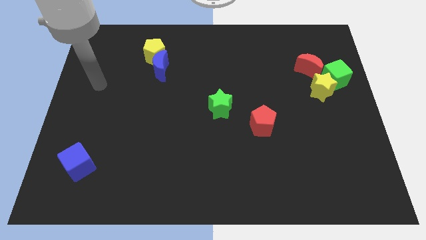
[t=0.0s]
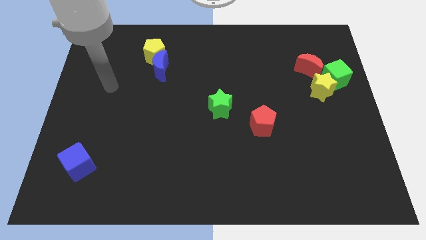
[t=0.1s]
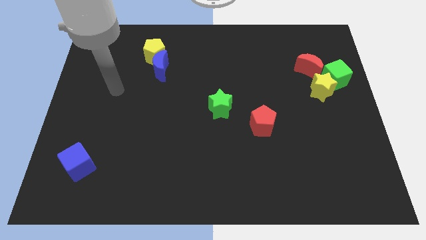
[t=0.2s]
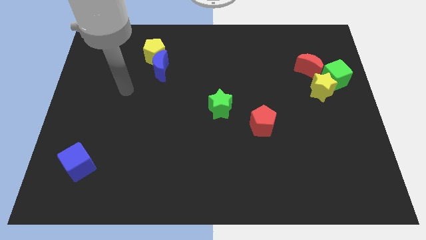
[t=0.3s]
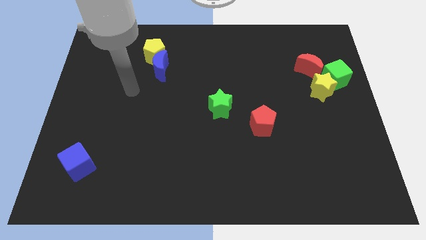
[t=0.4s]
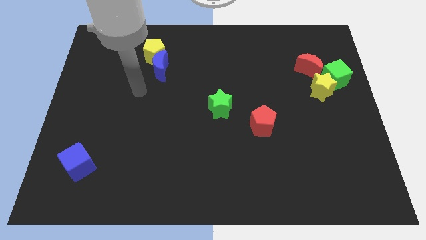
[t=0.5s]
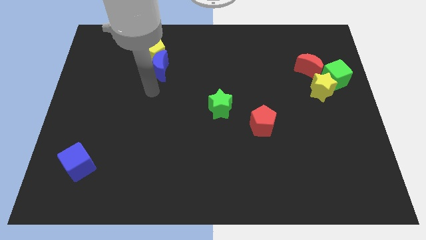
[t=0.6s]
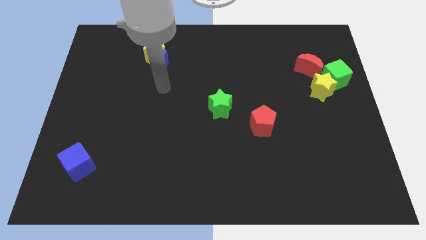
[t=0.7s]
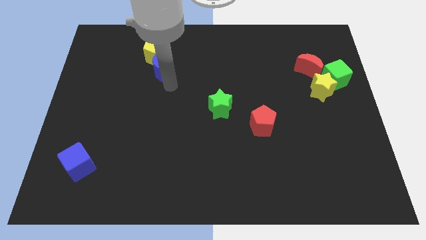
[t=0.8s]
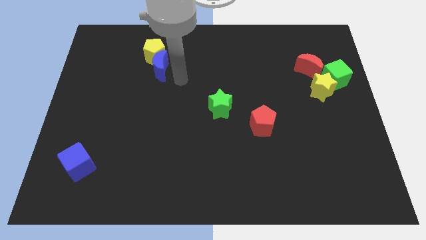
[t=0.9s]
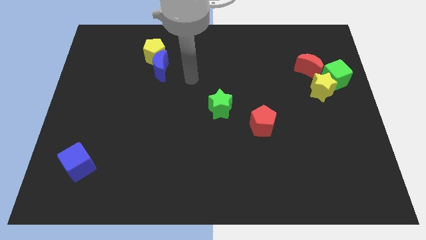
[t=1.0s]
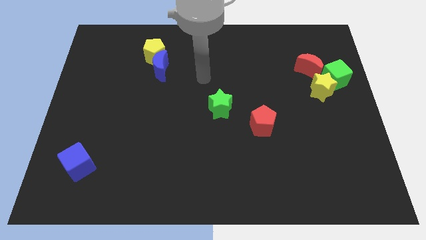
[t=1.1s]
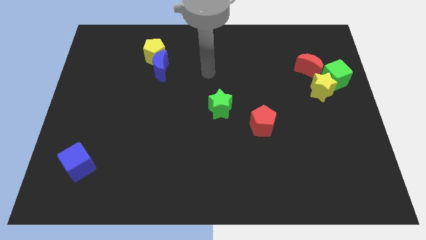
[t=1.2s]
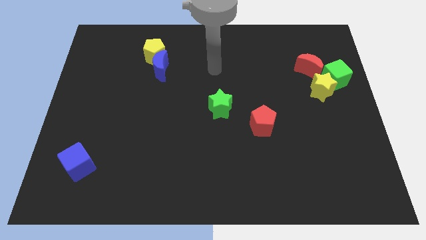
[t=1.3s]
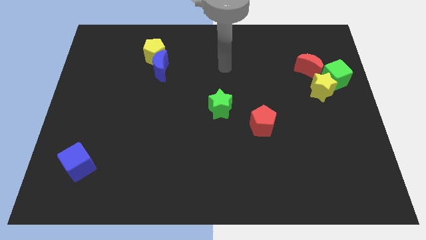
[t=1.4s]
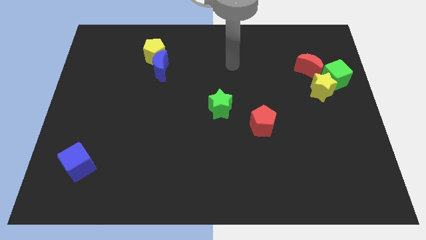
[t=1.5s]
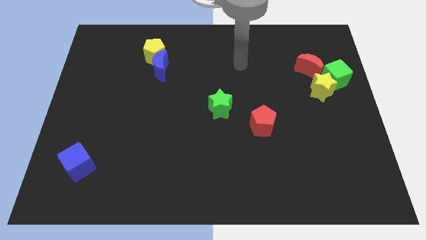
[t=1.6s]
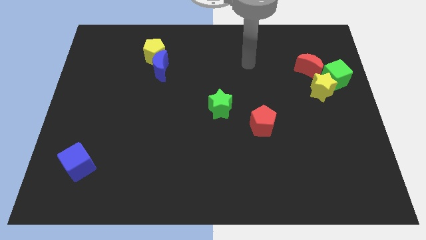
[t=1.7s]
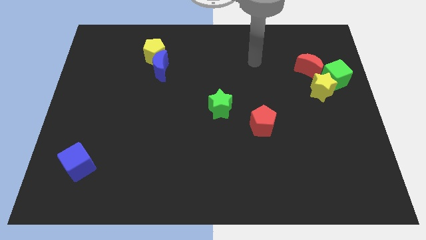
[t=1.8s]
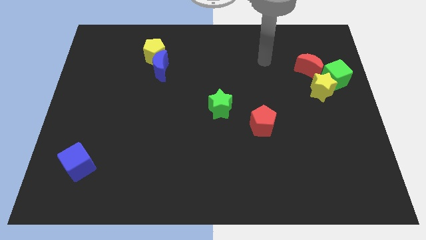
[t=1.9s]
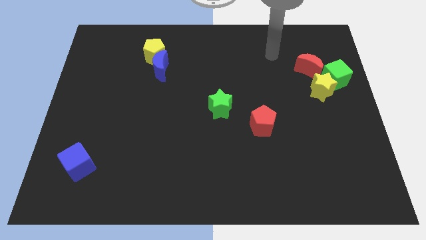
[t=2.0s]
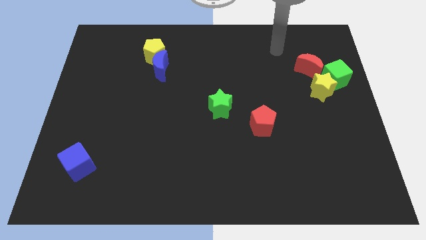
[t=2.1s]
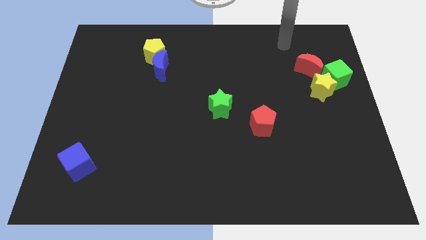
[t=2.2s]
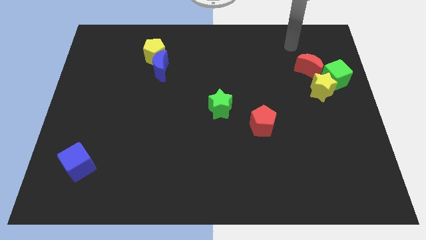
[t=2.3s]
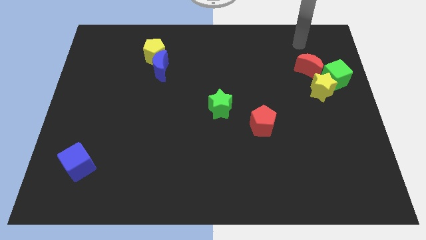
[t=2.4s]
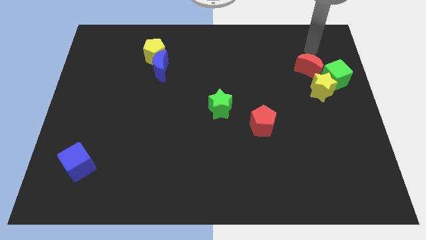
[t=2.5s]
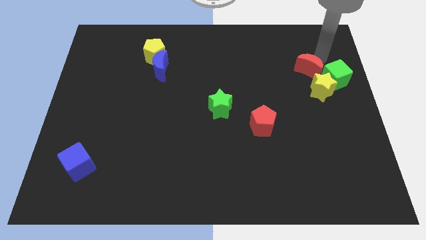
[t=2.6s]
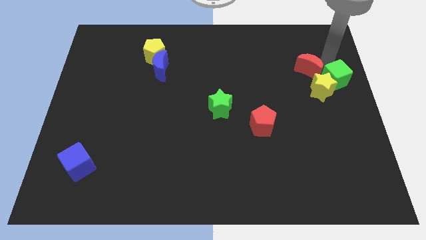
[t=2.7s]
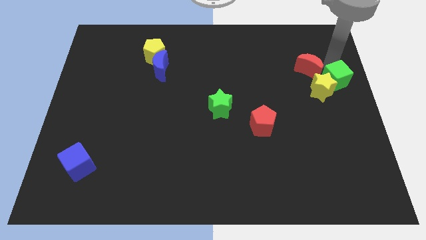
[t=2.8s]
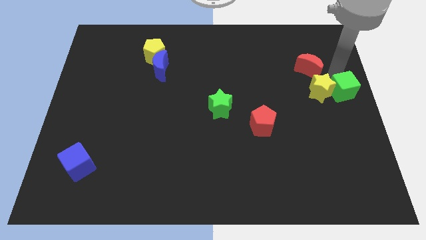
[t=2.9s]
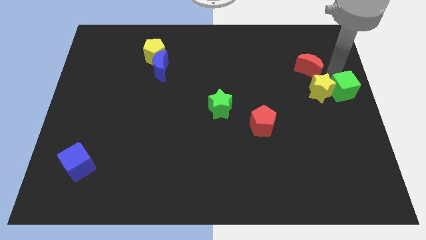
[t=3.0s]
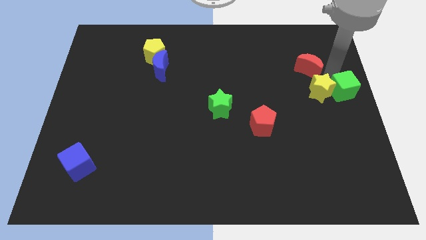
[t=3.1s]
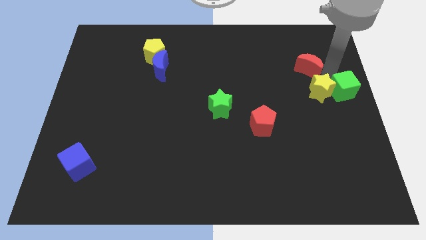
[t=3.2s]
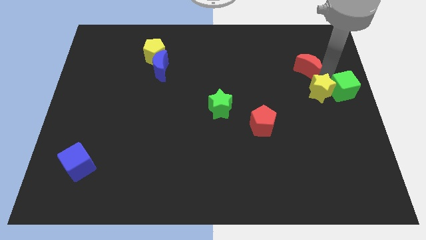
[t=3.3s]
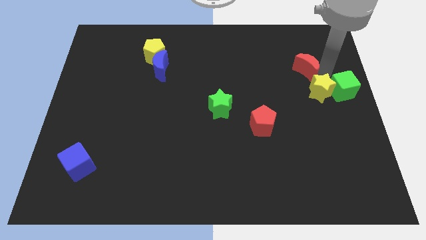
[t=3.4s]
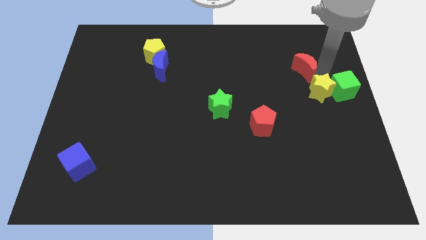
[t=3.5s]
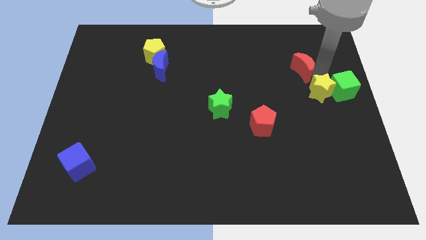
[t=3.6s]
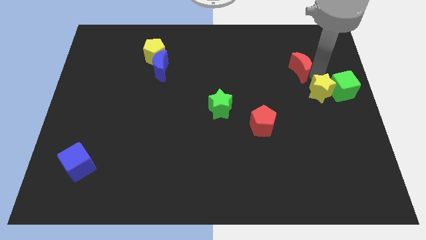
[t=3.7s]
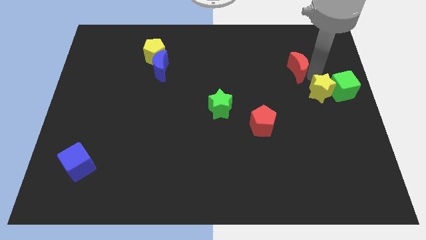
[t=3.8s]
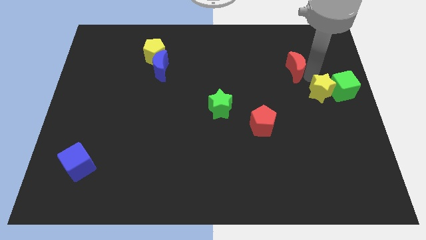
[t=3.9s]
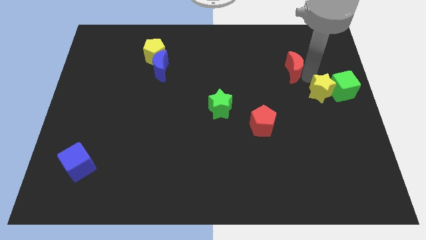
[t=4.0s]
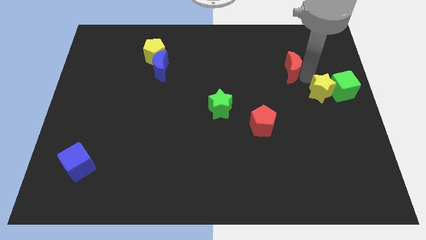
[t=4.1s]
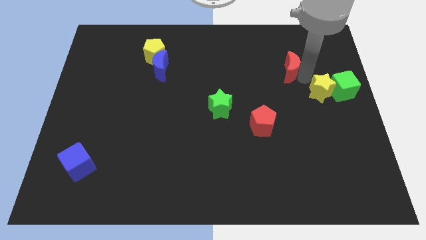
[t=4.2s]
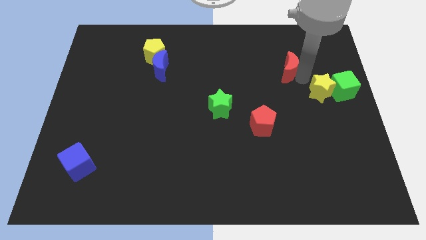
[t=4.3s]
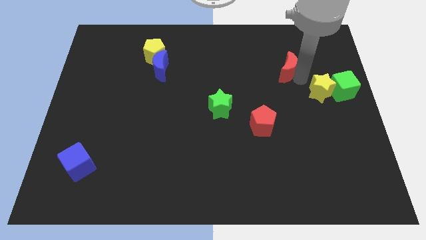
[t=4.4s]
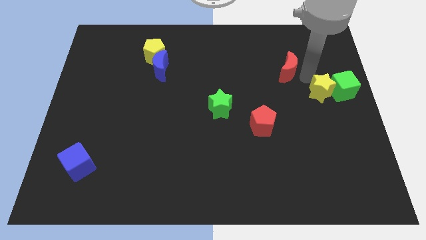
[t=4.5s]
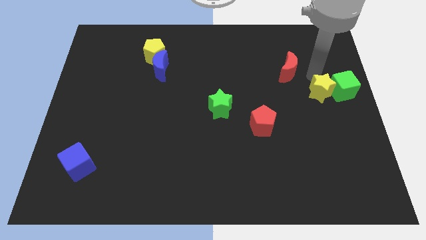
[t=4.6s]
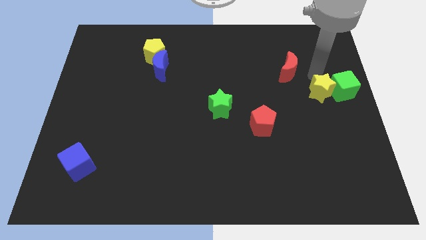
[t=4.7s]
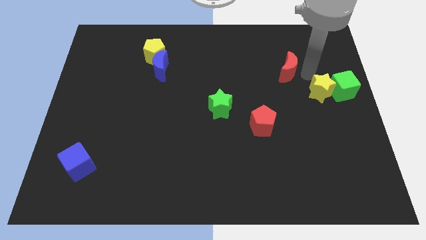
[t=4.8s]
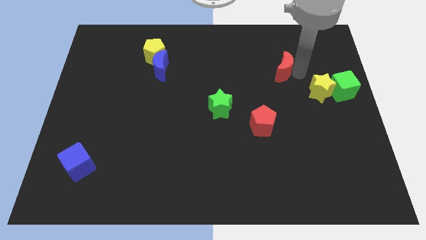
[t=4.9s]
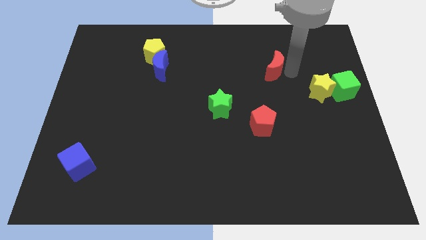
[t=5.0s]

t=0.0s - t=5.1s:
move the red moon left somewhat

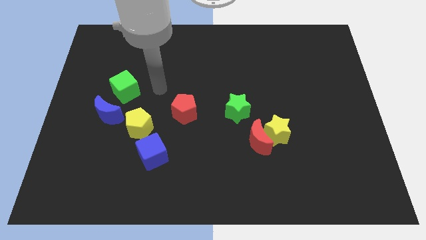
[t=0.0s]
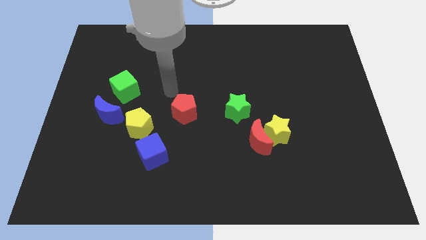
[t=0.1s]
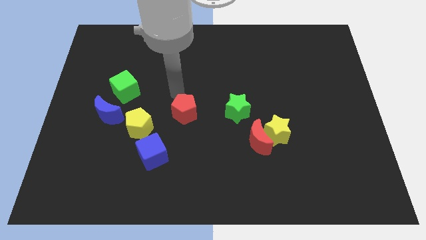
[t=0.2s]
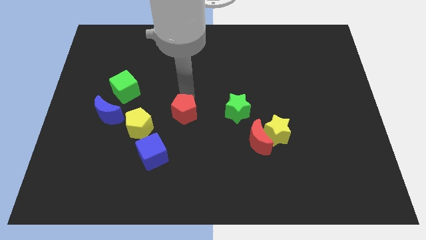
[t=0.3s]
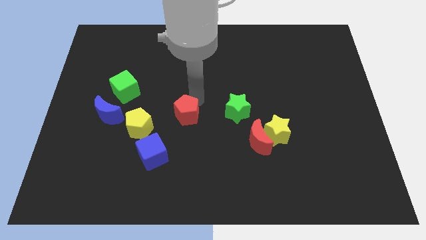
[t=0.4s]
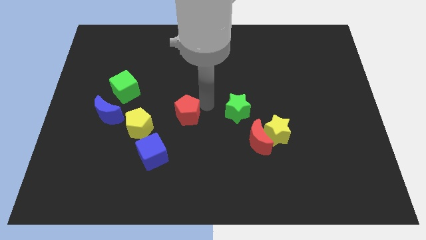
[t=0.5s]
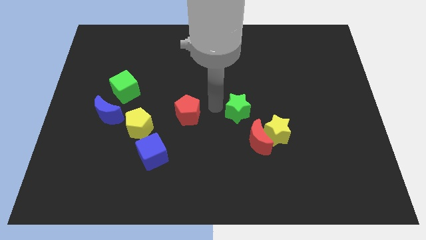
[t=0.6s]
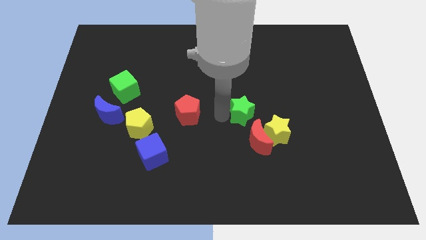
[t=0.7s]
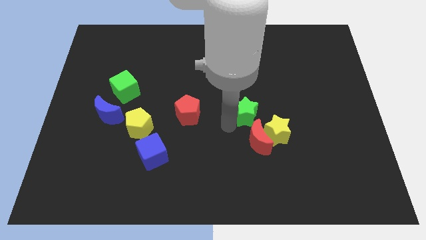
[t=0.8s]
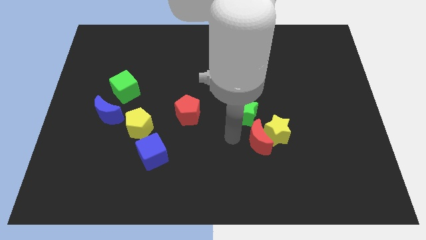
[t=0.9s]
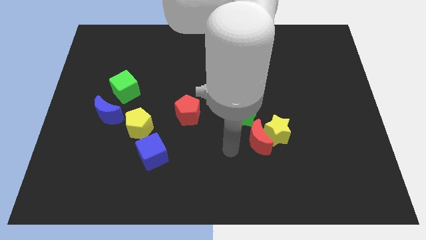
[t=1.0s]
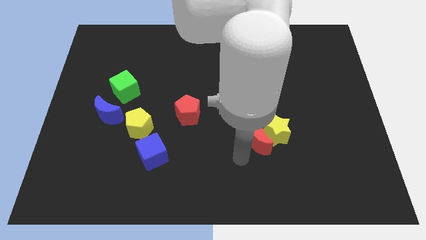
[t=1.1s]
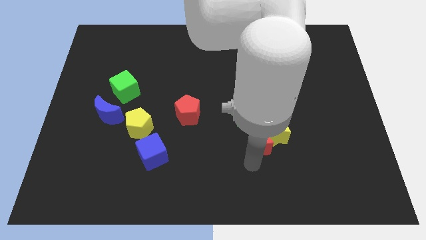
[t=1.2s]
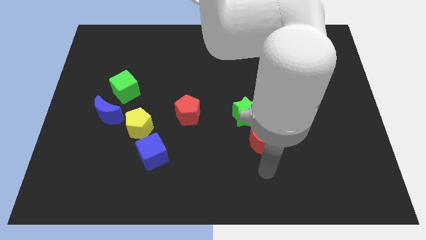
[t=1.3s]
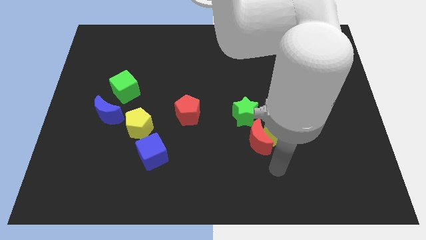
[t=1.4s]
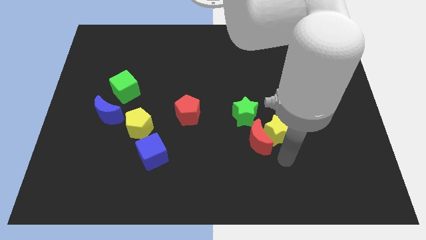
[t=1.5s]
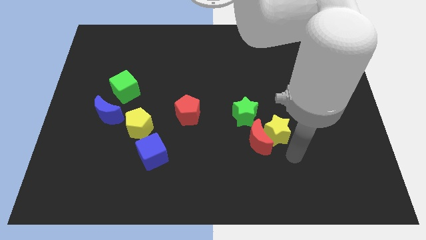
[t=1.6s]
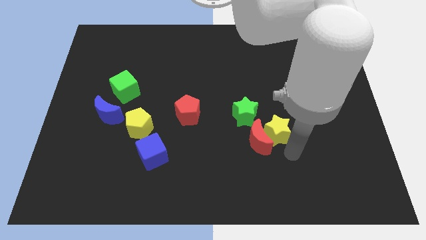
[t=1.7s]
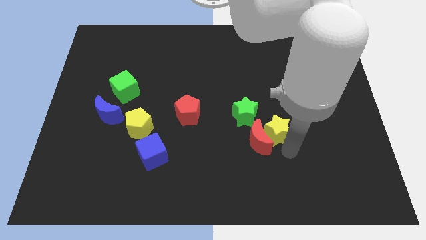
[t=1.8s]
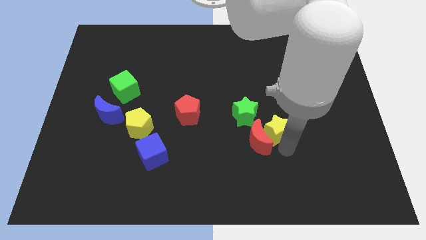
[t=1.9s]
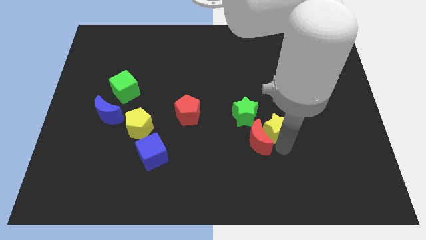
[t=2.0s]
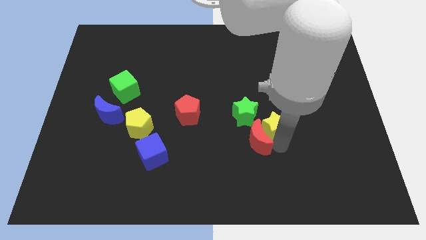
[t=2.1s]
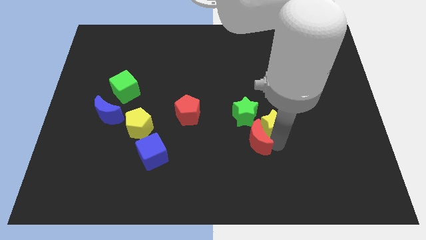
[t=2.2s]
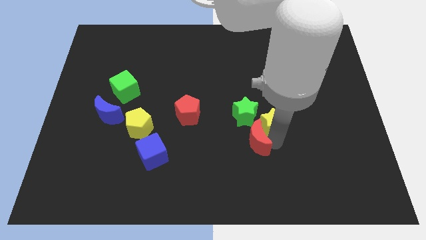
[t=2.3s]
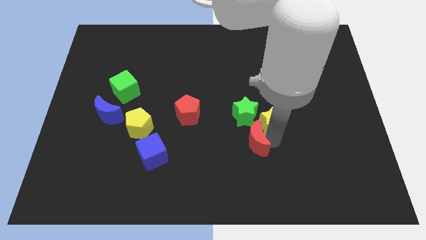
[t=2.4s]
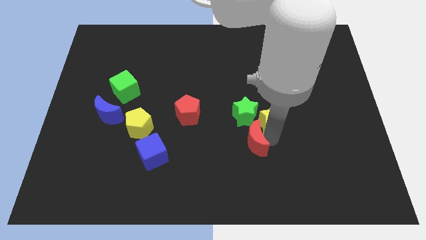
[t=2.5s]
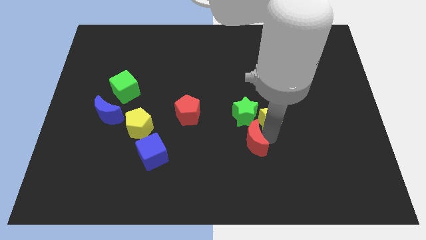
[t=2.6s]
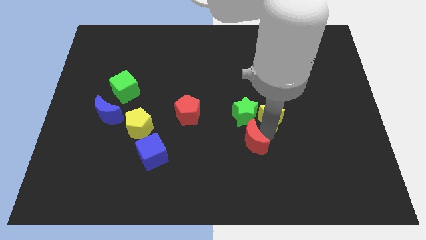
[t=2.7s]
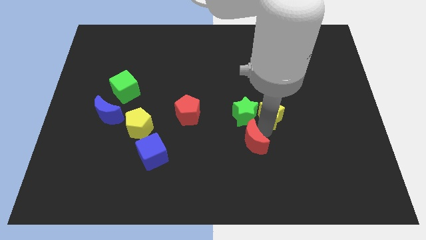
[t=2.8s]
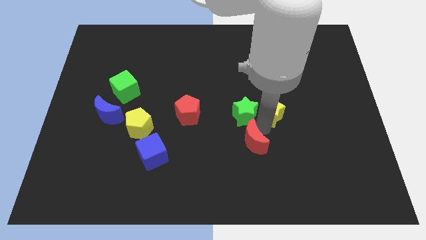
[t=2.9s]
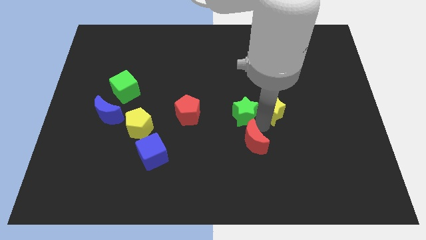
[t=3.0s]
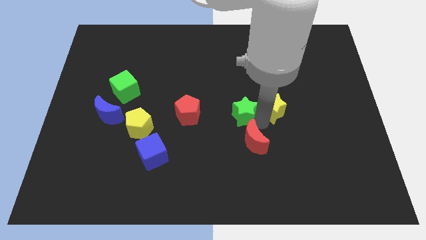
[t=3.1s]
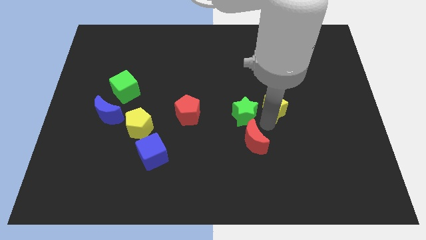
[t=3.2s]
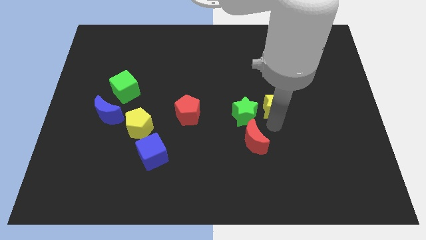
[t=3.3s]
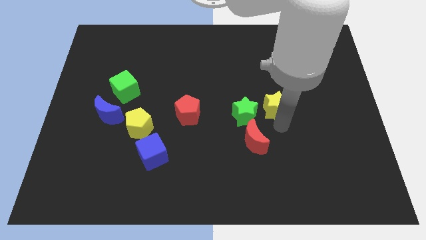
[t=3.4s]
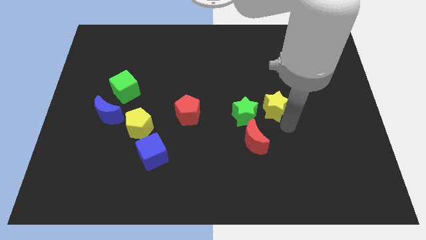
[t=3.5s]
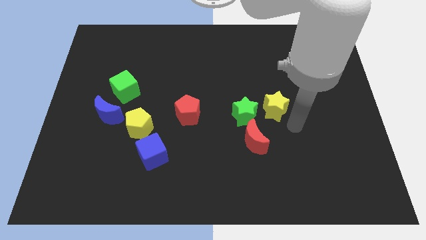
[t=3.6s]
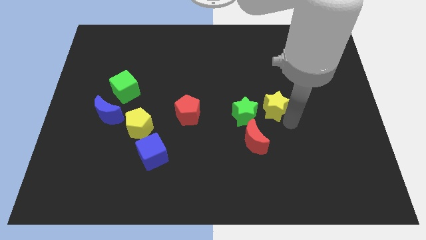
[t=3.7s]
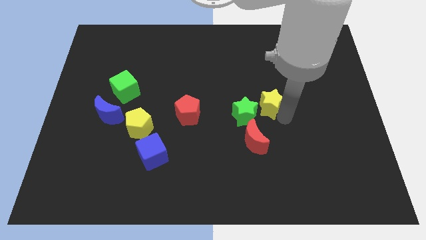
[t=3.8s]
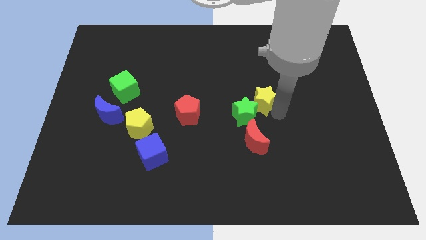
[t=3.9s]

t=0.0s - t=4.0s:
slightly push the yellow star up and then left
